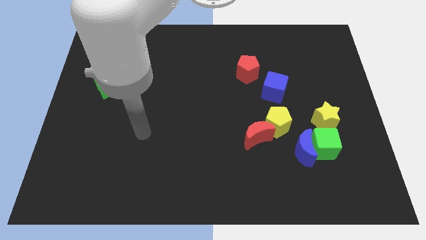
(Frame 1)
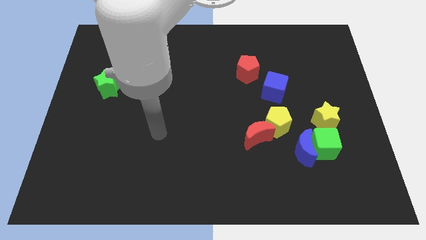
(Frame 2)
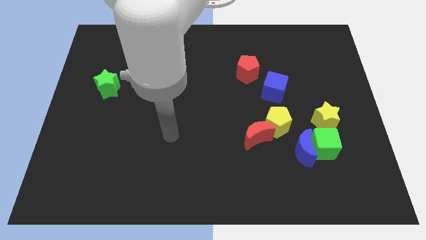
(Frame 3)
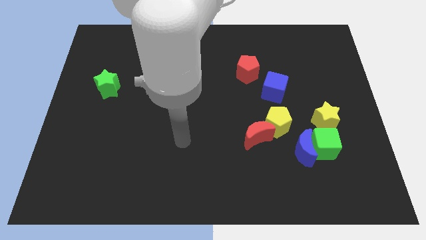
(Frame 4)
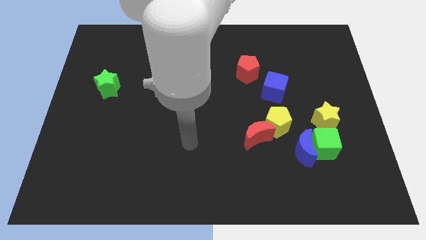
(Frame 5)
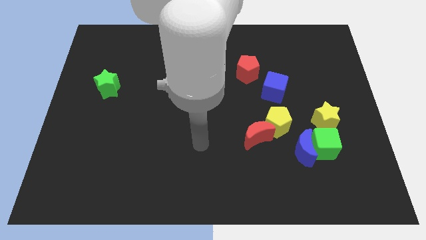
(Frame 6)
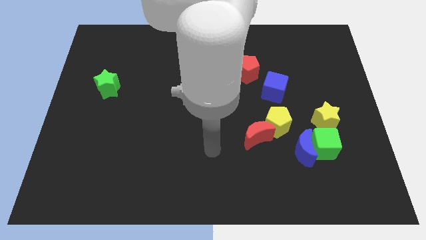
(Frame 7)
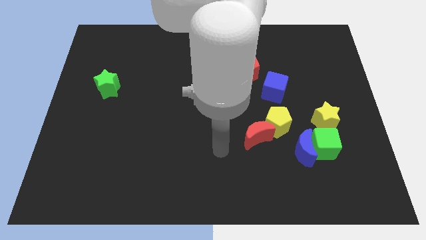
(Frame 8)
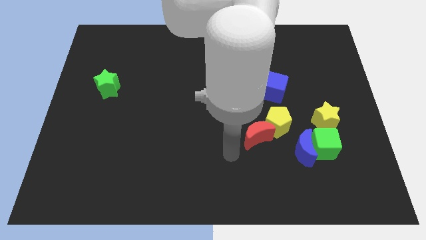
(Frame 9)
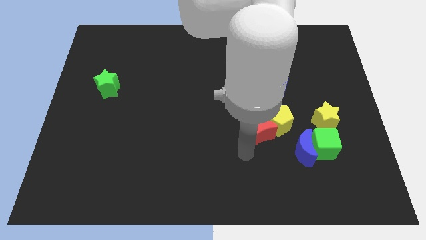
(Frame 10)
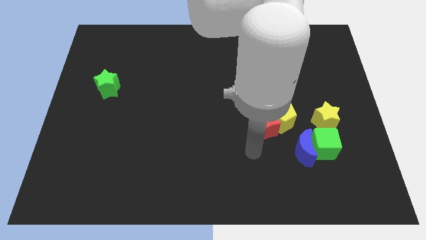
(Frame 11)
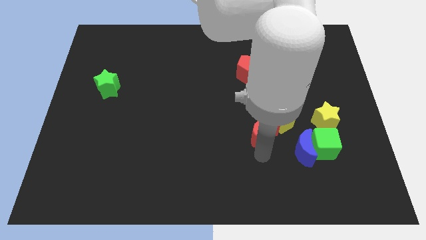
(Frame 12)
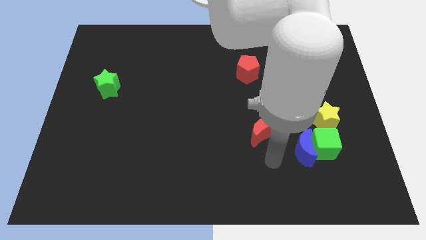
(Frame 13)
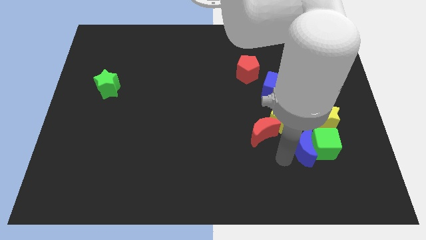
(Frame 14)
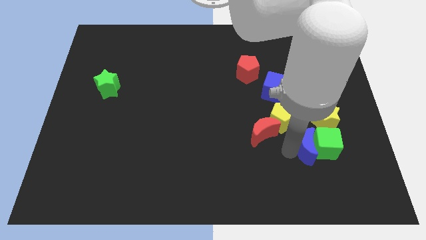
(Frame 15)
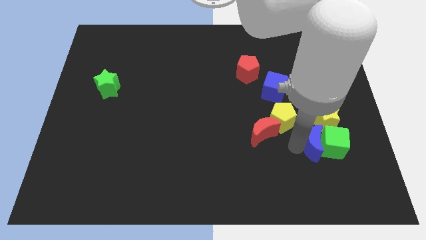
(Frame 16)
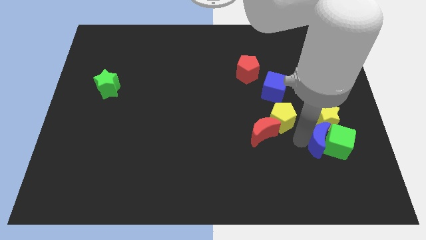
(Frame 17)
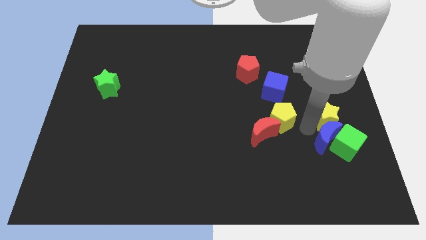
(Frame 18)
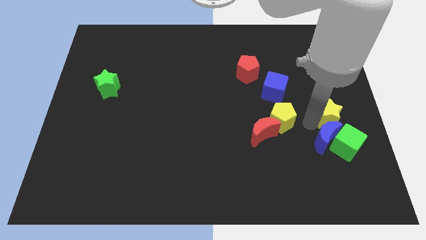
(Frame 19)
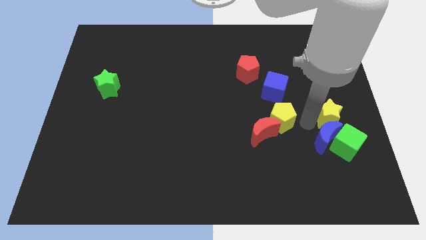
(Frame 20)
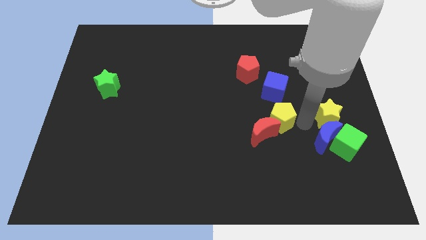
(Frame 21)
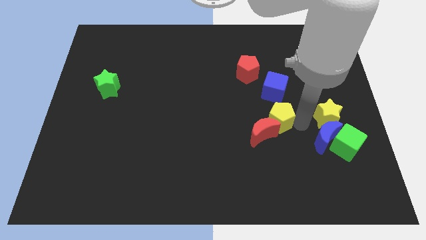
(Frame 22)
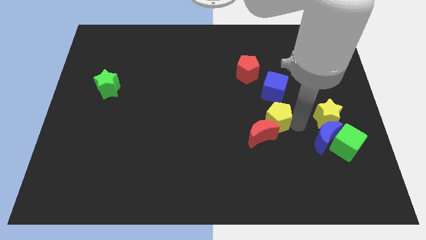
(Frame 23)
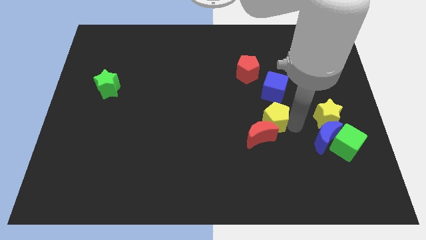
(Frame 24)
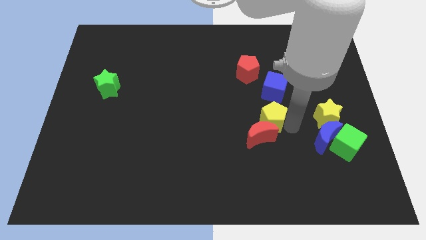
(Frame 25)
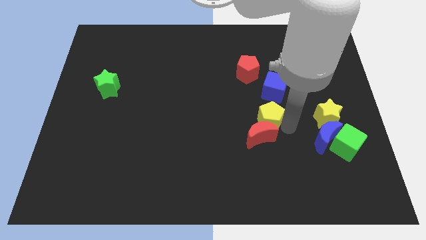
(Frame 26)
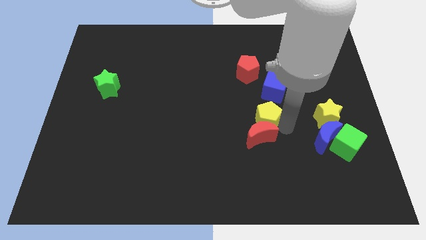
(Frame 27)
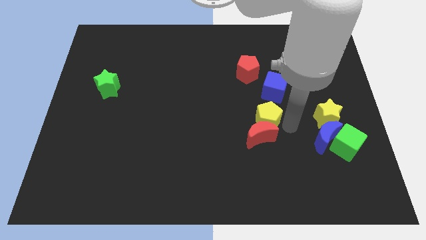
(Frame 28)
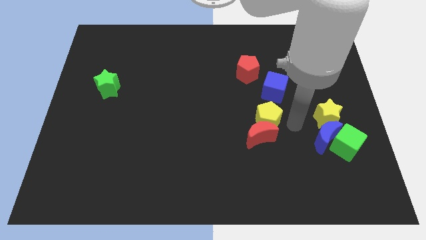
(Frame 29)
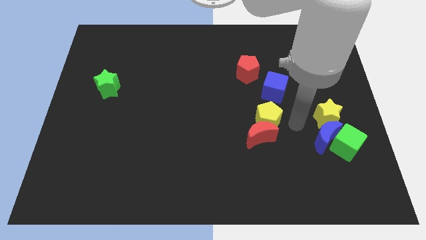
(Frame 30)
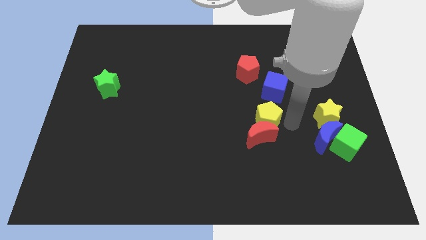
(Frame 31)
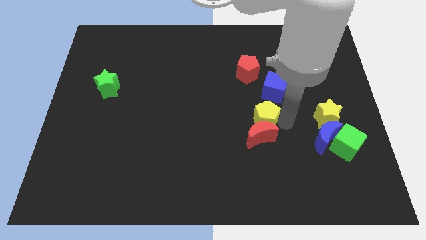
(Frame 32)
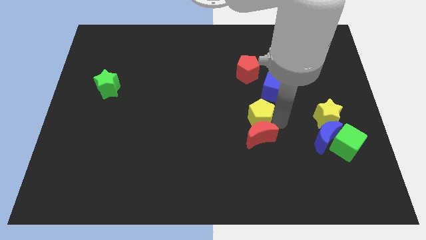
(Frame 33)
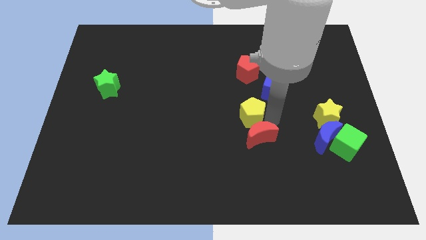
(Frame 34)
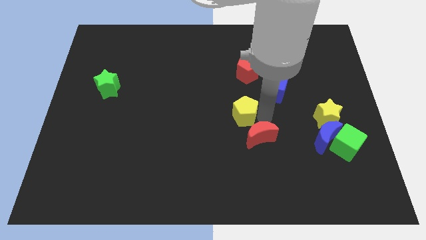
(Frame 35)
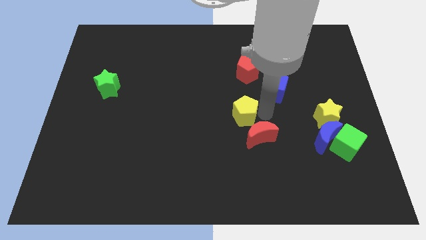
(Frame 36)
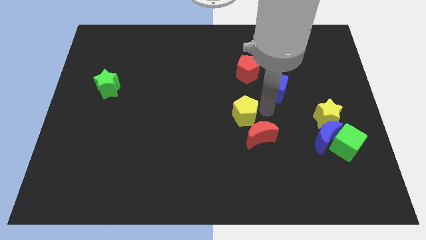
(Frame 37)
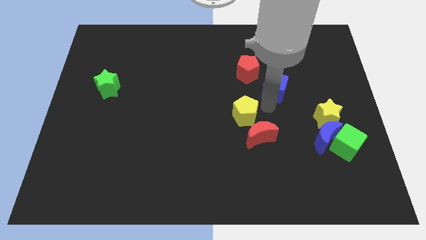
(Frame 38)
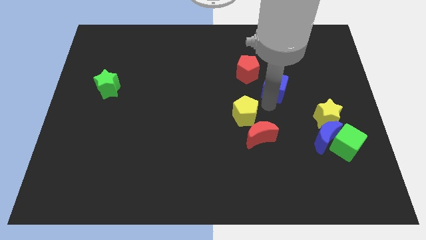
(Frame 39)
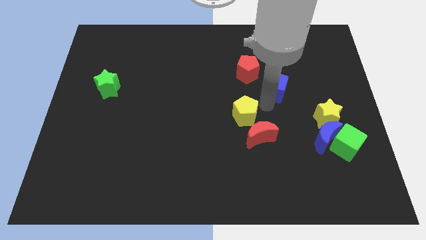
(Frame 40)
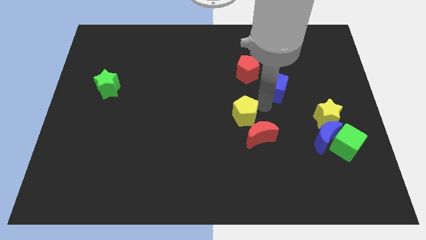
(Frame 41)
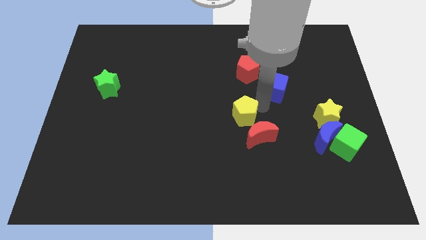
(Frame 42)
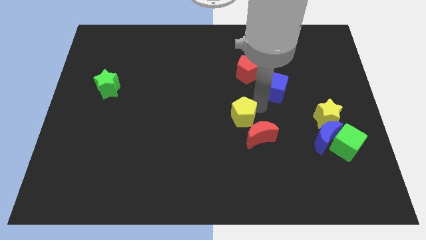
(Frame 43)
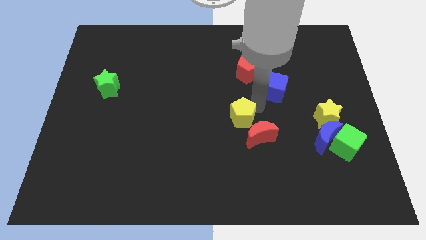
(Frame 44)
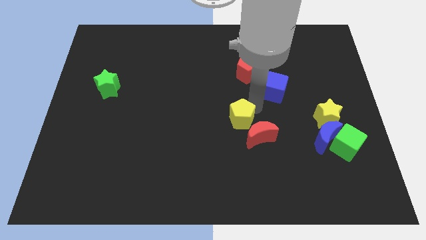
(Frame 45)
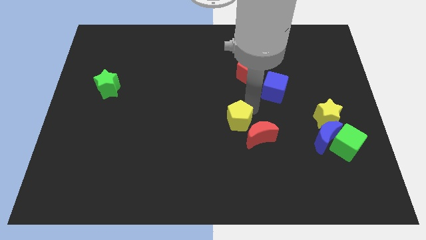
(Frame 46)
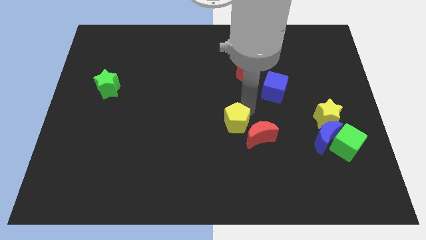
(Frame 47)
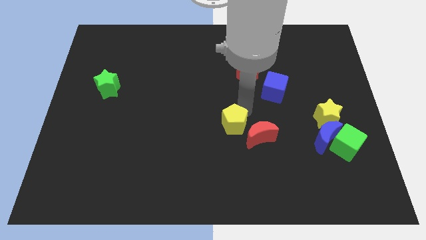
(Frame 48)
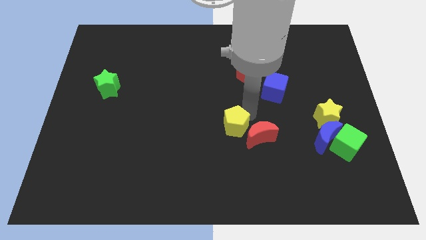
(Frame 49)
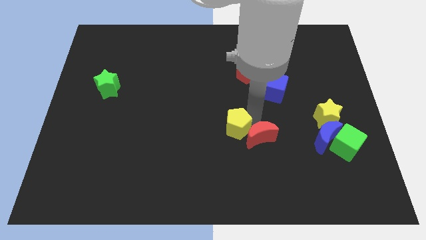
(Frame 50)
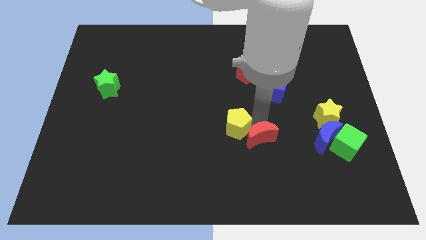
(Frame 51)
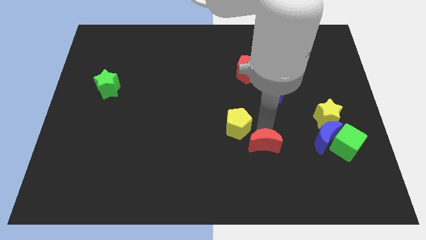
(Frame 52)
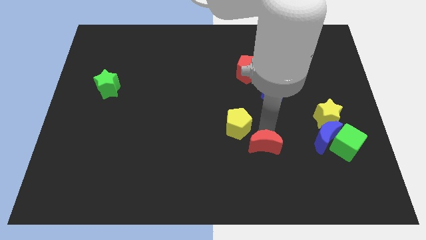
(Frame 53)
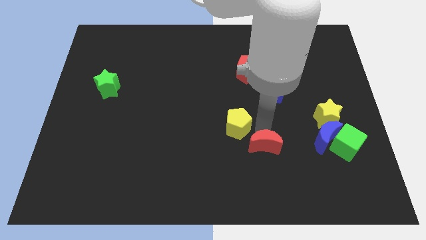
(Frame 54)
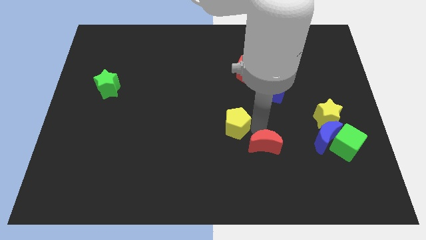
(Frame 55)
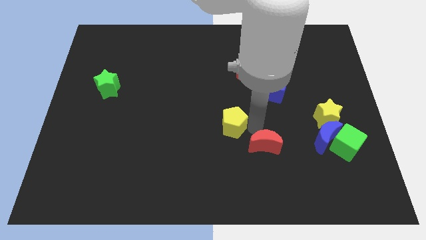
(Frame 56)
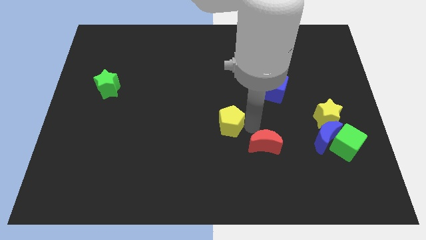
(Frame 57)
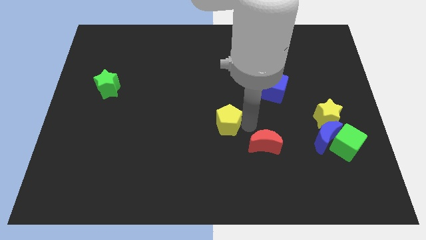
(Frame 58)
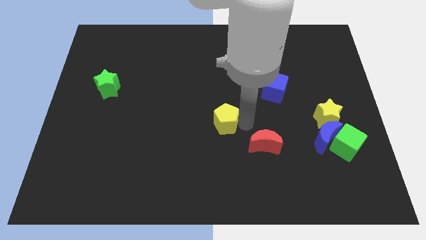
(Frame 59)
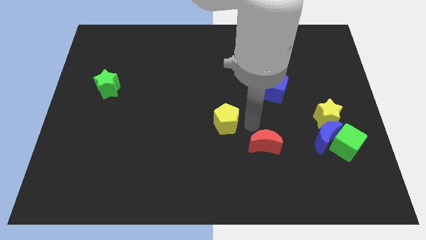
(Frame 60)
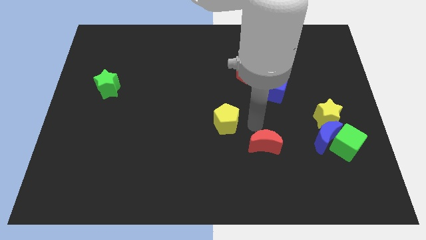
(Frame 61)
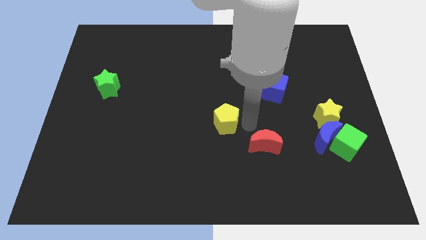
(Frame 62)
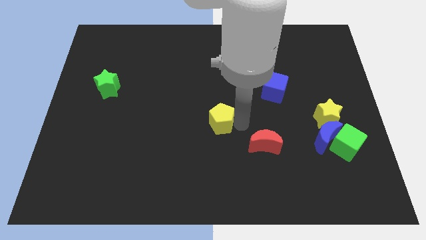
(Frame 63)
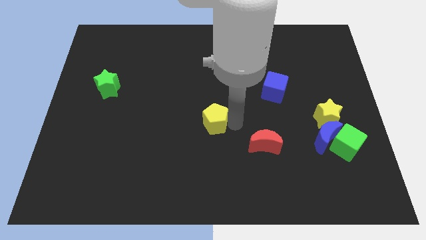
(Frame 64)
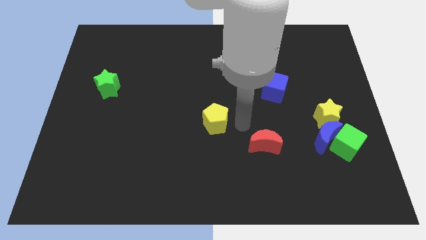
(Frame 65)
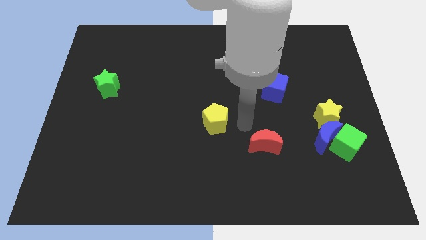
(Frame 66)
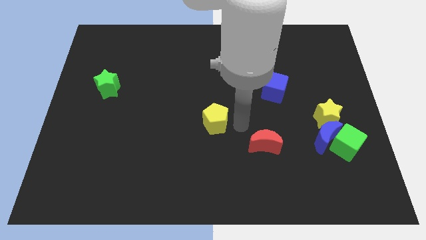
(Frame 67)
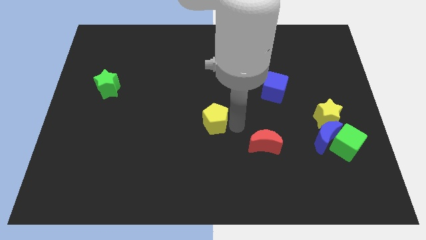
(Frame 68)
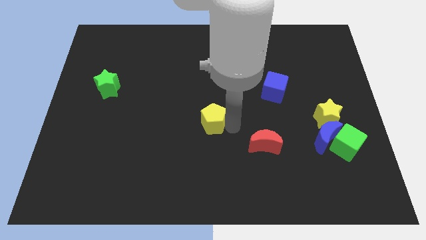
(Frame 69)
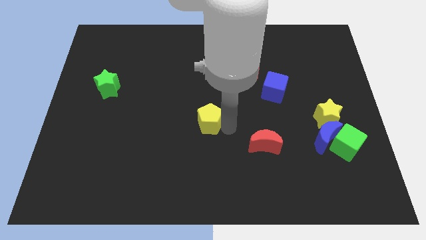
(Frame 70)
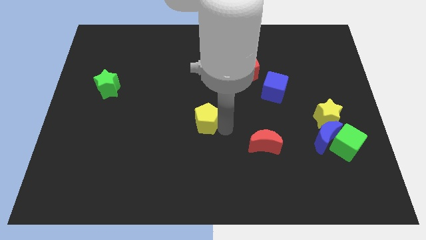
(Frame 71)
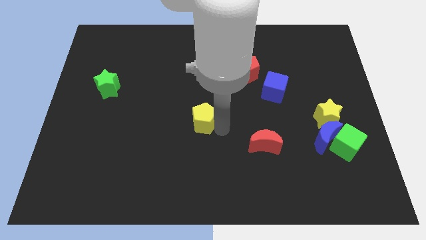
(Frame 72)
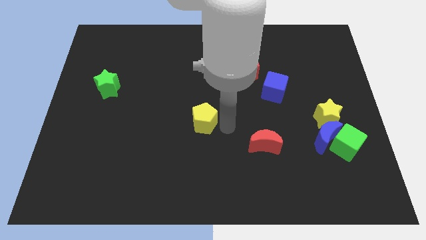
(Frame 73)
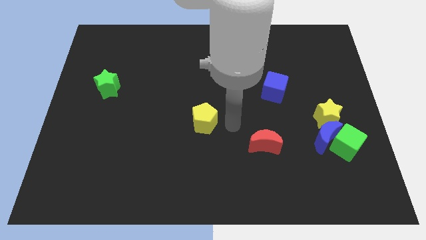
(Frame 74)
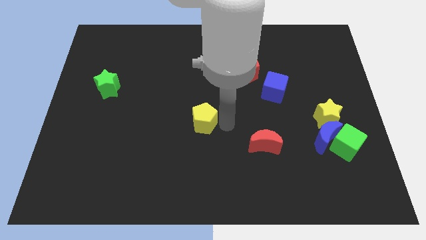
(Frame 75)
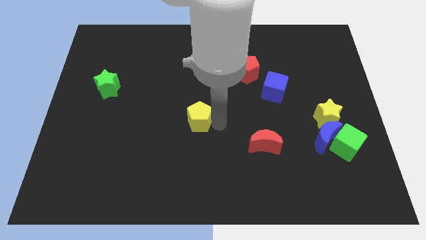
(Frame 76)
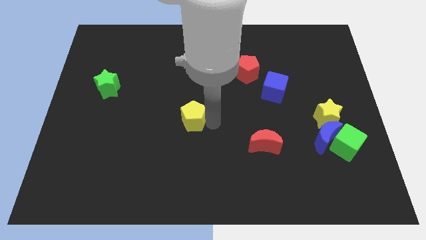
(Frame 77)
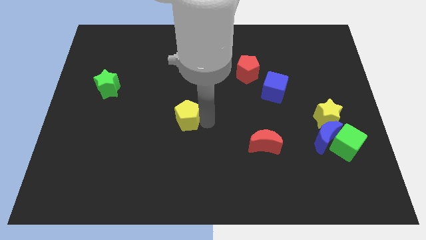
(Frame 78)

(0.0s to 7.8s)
push the yellow pentagon to the left

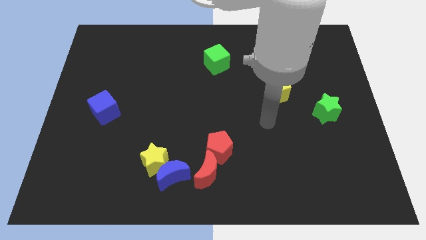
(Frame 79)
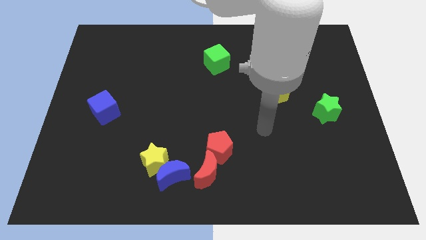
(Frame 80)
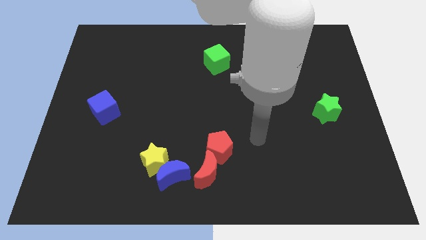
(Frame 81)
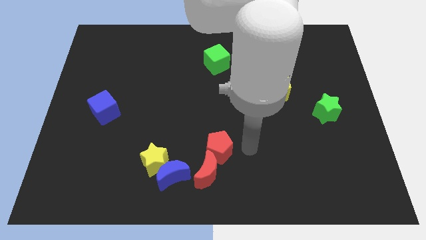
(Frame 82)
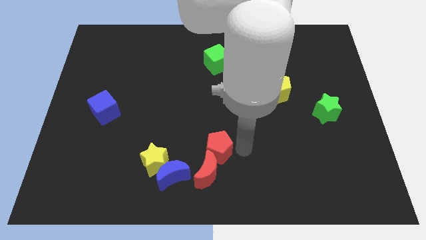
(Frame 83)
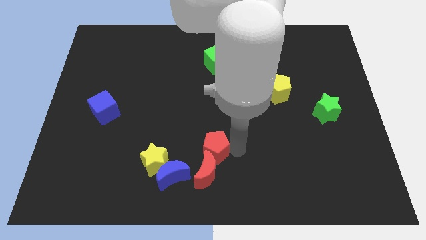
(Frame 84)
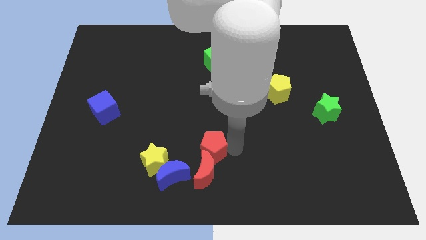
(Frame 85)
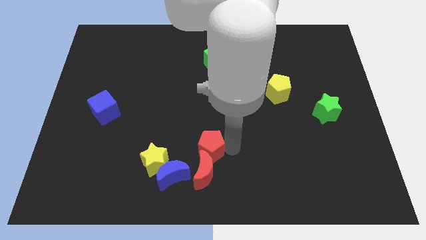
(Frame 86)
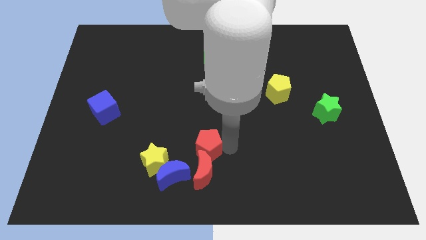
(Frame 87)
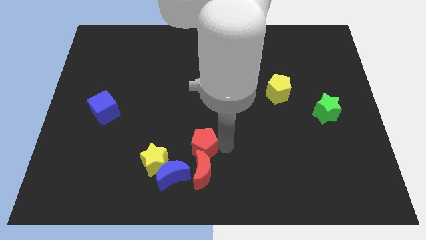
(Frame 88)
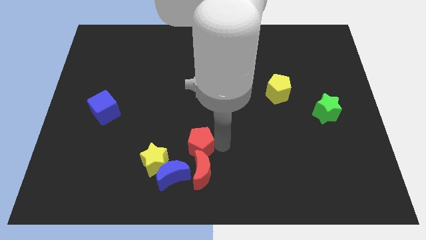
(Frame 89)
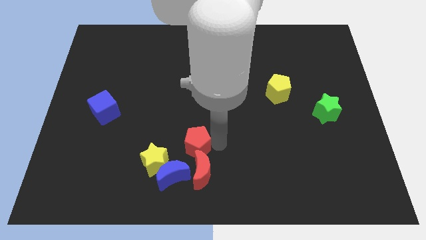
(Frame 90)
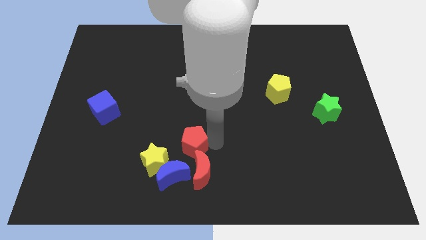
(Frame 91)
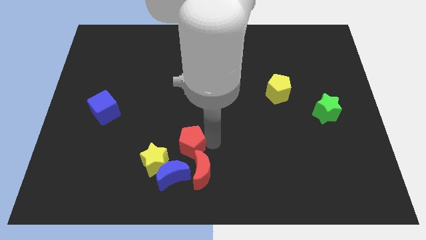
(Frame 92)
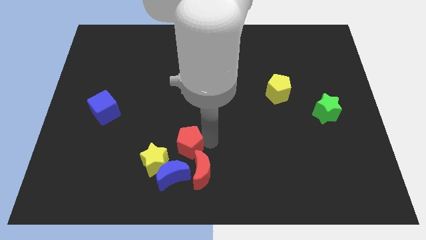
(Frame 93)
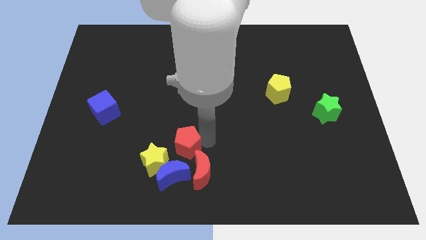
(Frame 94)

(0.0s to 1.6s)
move the red pentagon left slightly
